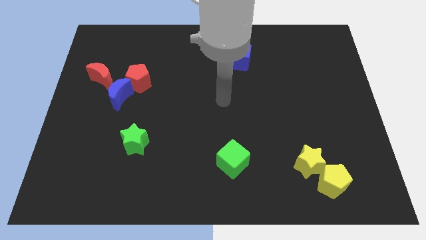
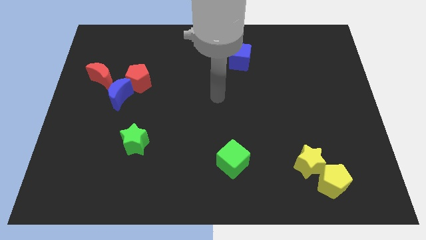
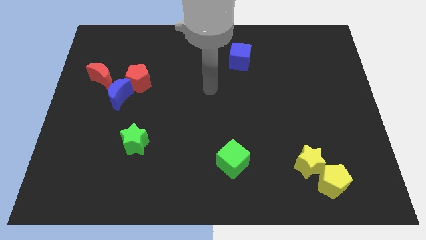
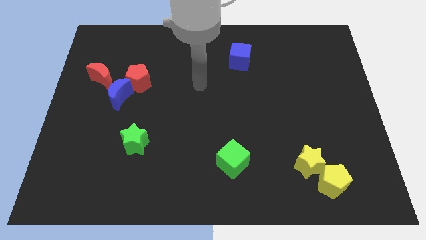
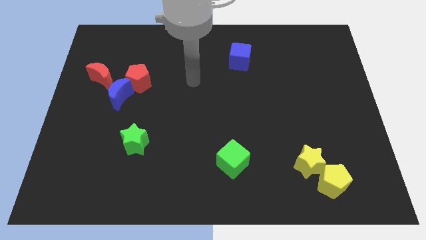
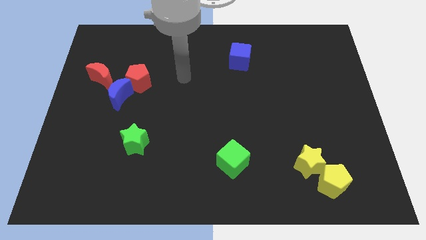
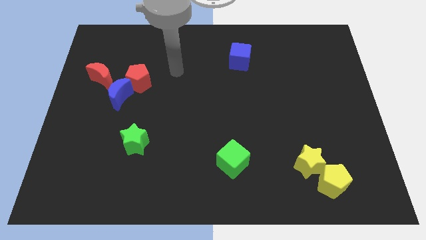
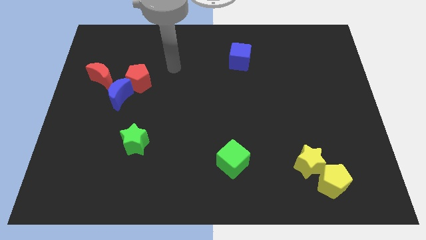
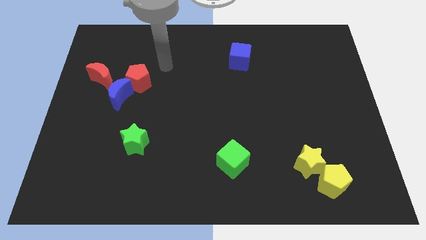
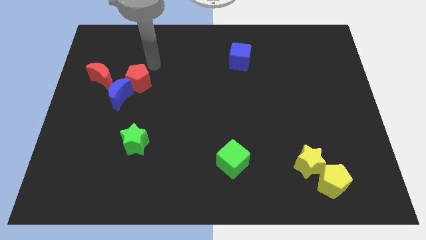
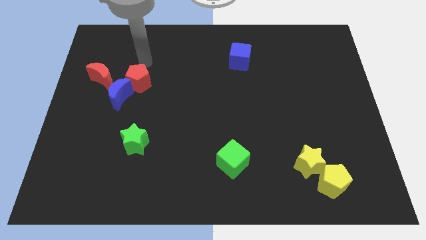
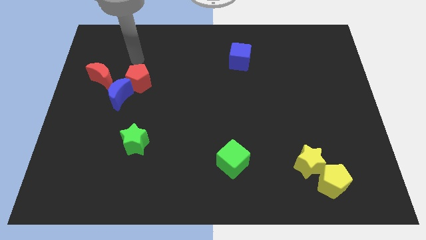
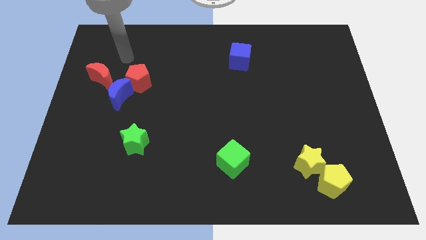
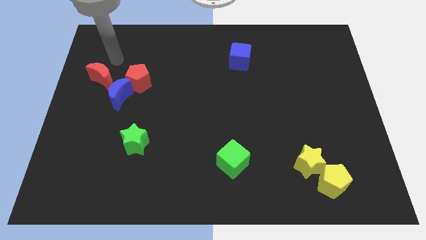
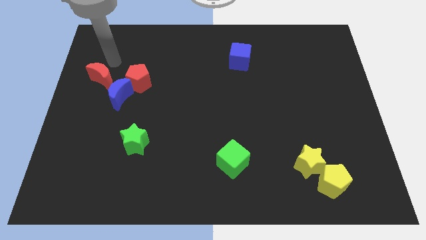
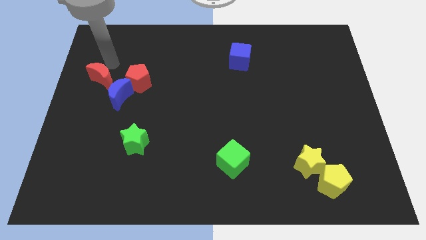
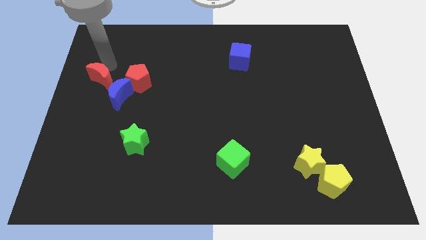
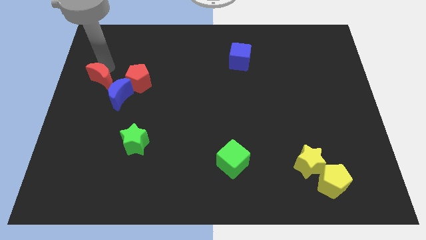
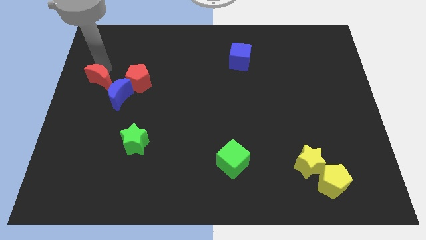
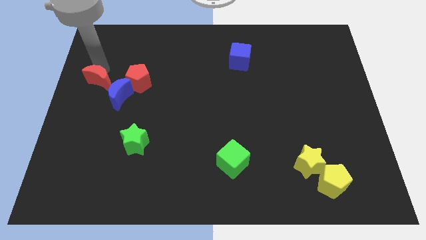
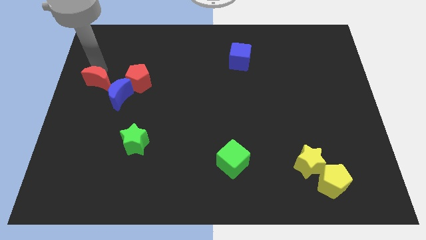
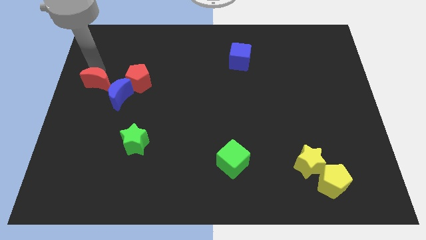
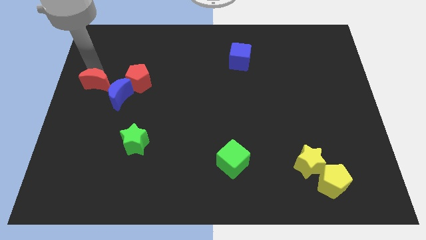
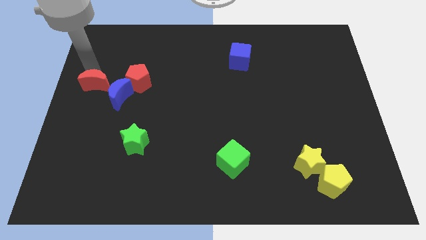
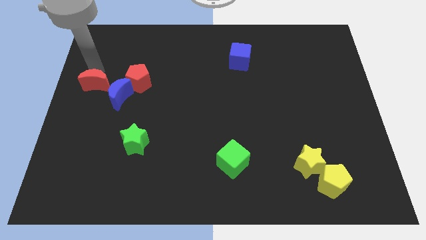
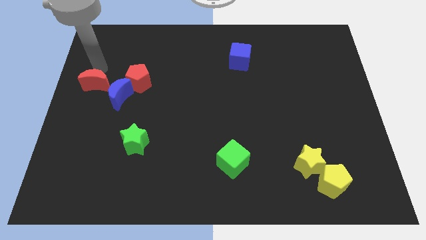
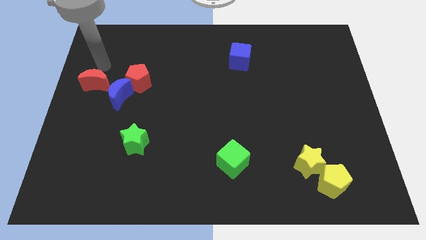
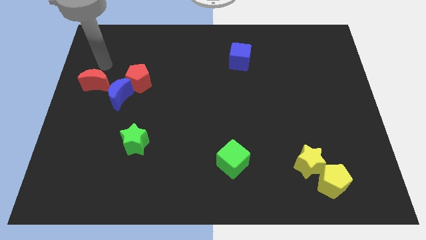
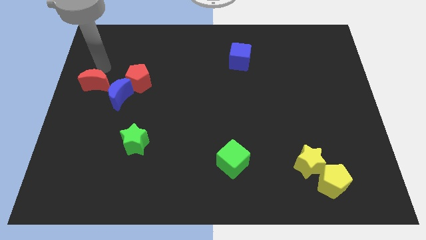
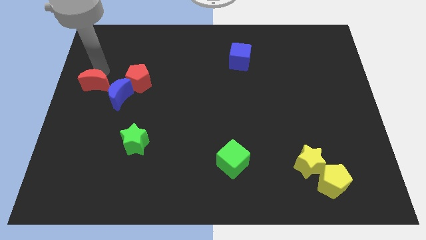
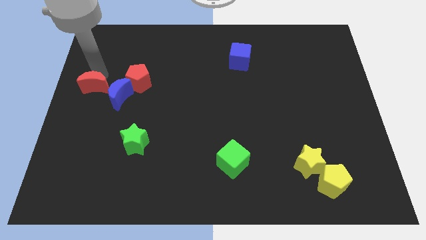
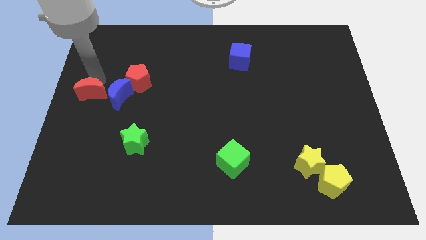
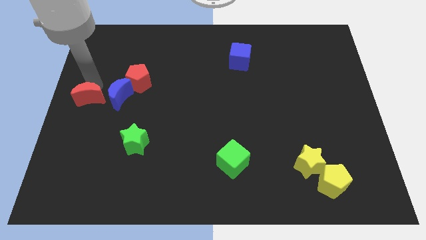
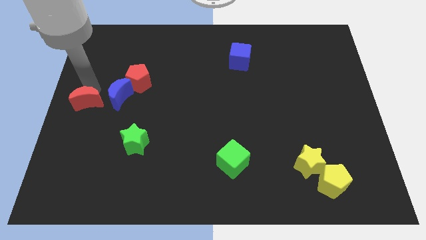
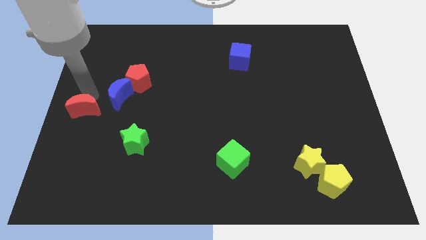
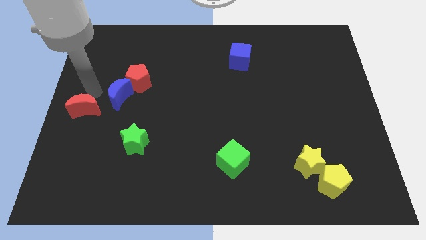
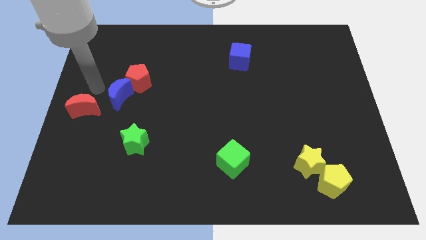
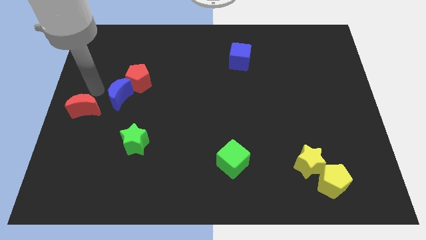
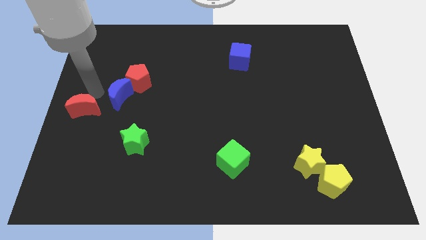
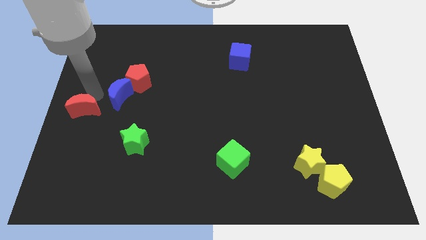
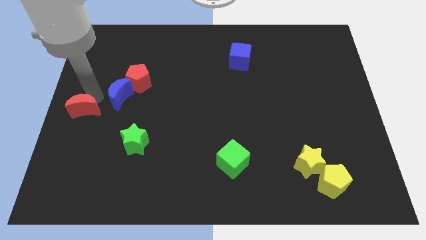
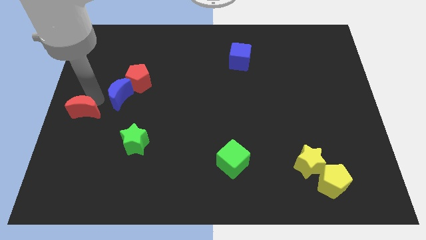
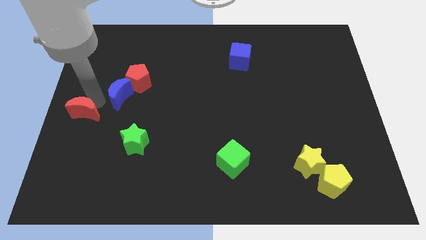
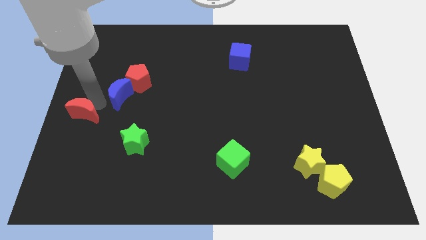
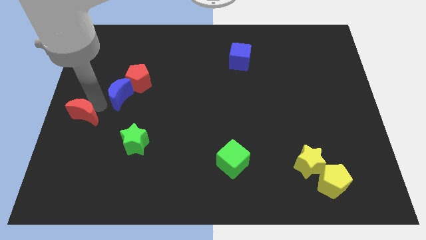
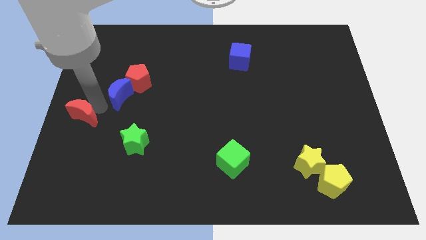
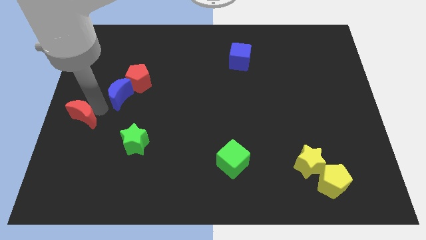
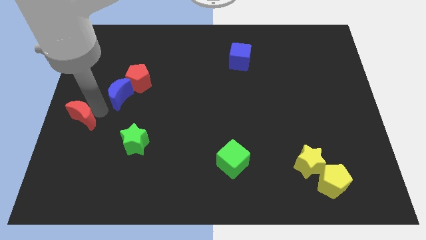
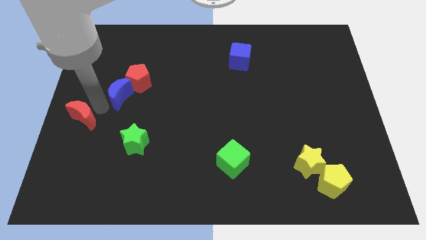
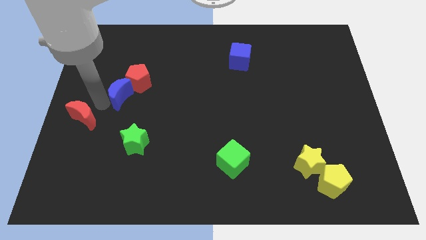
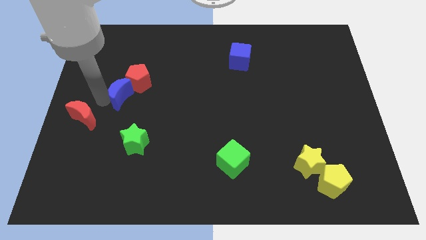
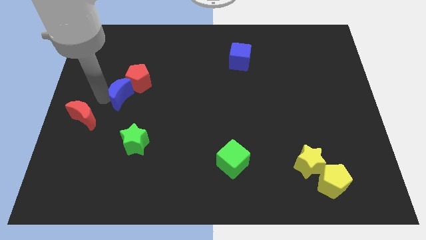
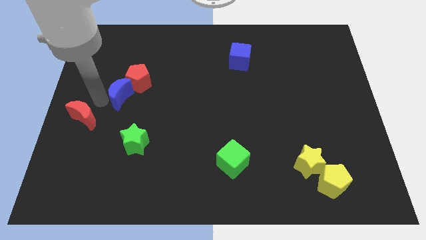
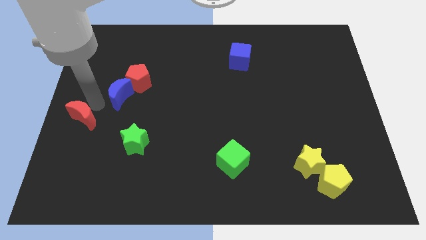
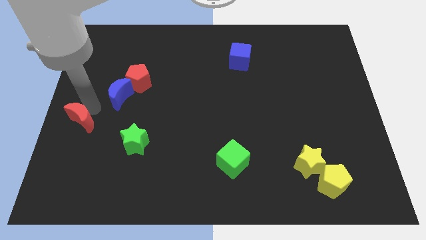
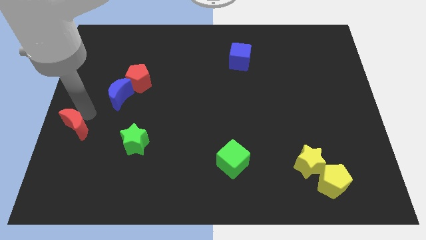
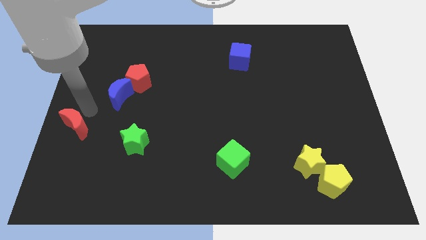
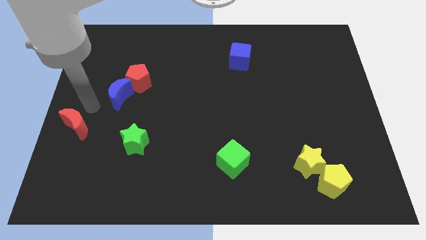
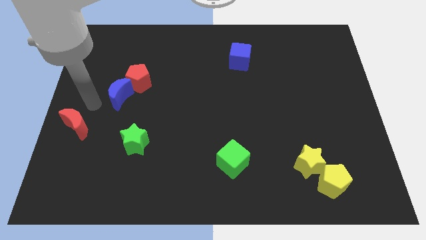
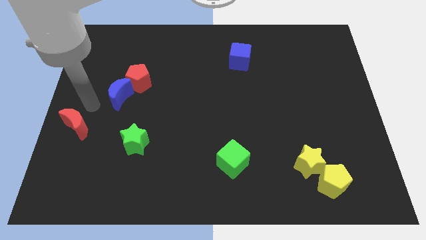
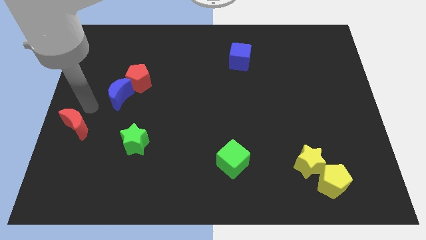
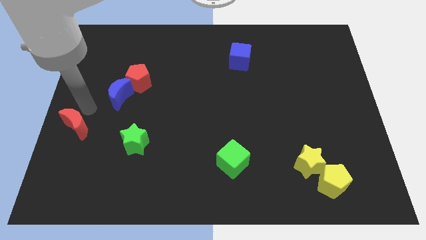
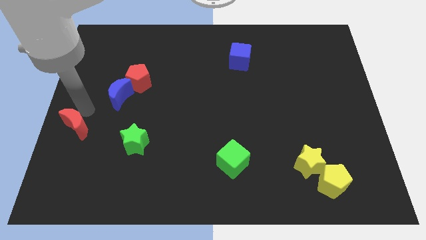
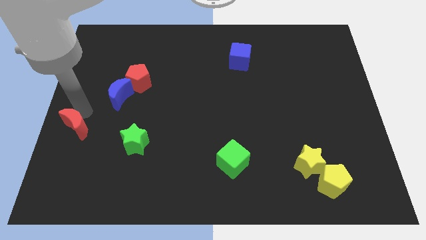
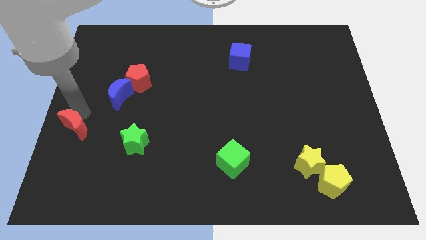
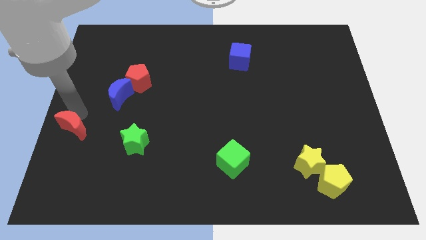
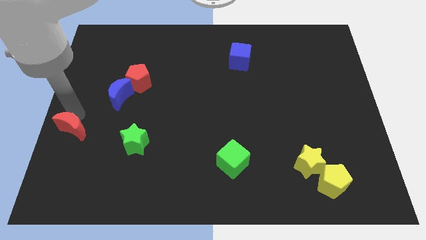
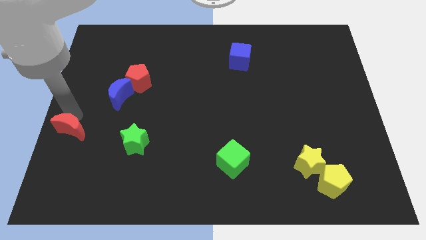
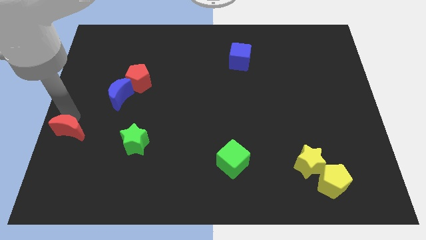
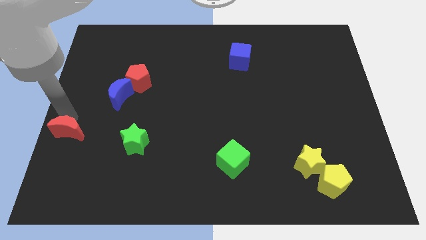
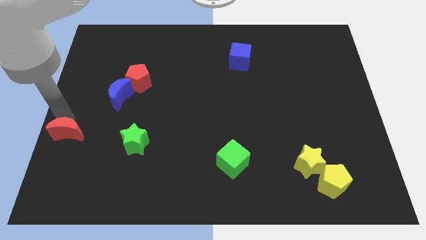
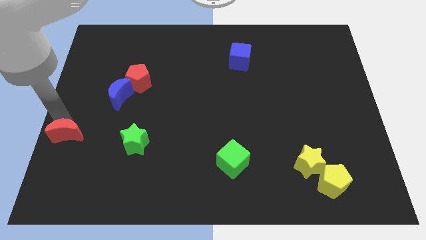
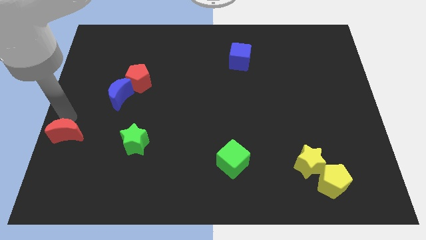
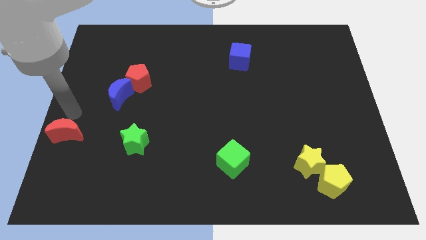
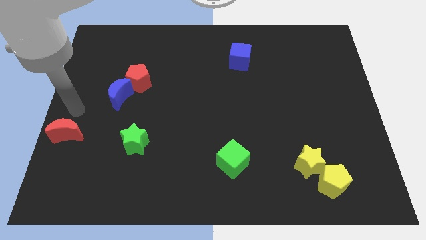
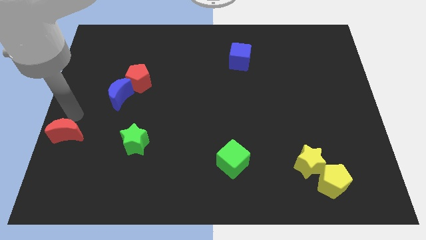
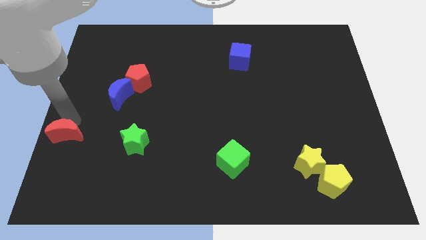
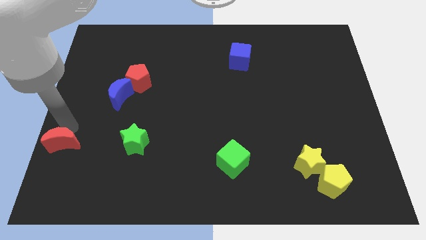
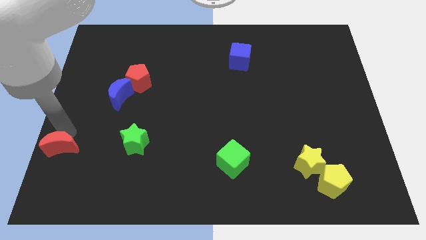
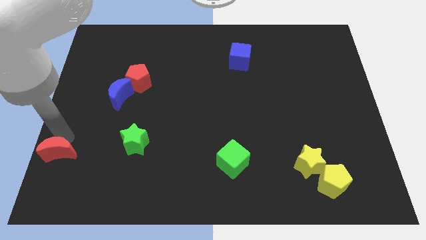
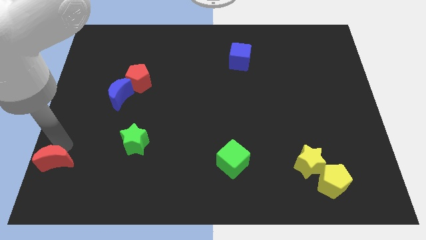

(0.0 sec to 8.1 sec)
slide the red moon to the bottom left

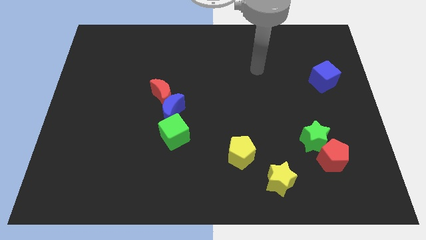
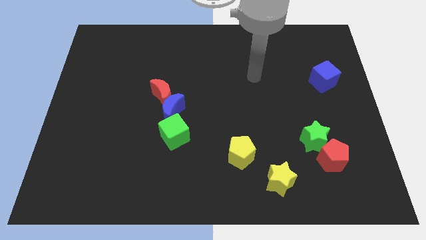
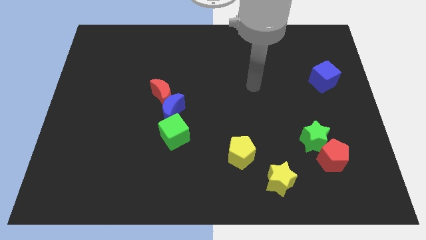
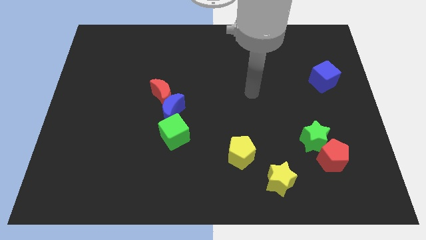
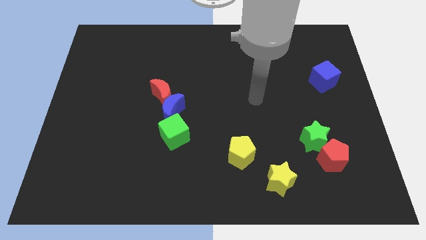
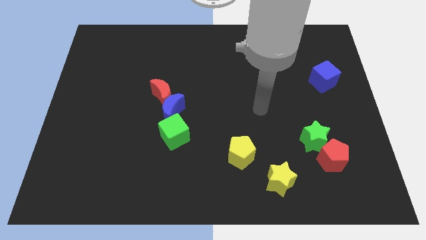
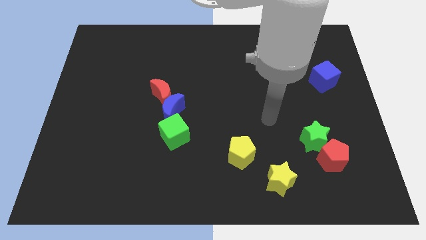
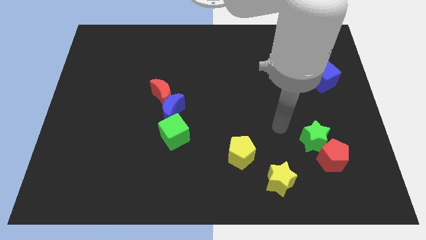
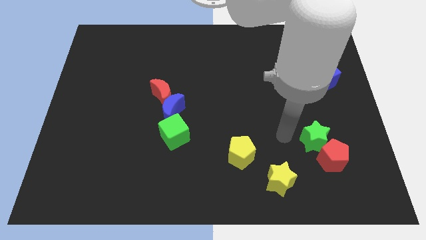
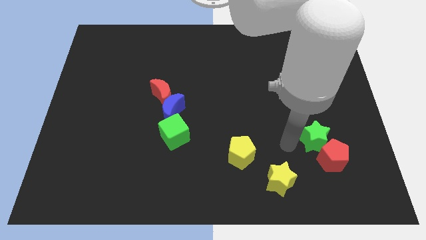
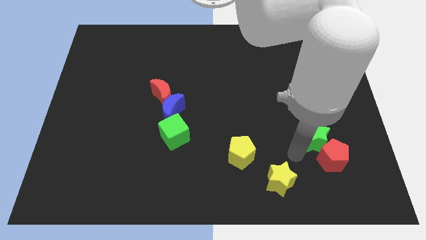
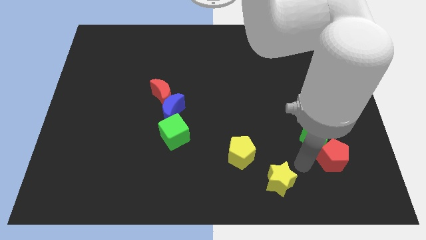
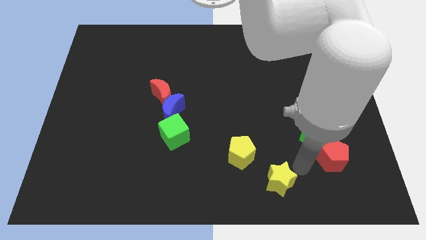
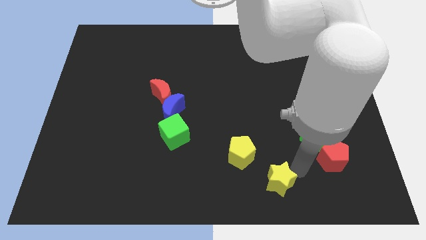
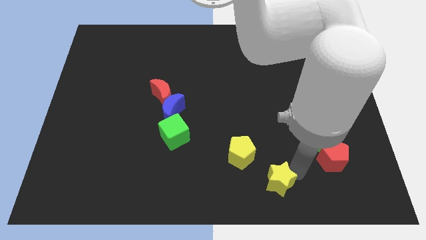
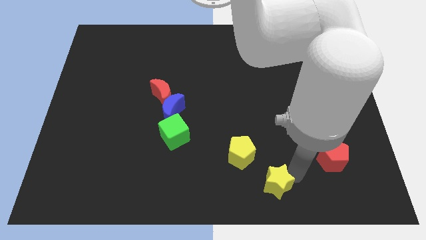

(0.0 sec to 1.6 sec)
move the yellow star to the bottom side
